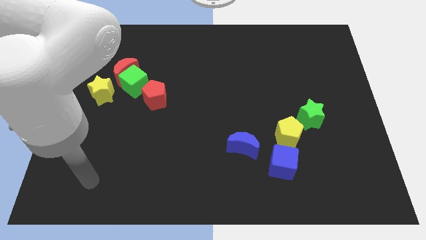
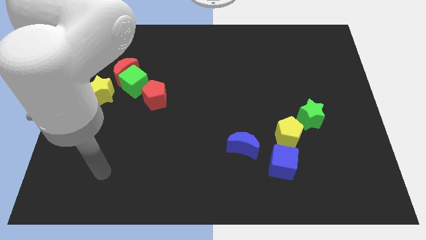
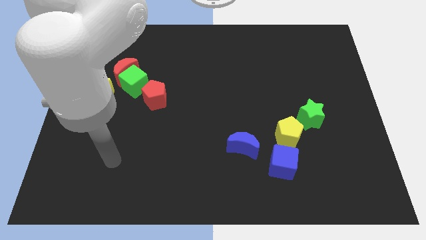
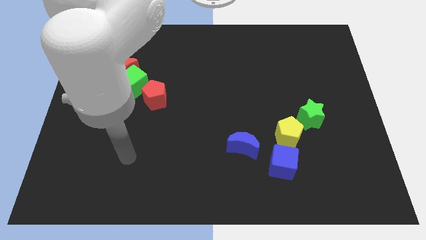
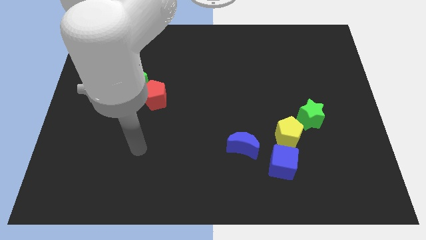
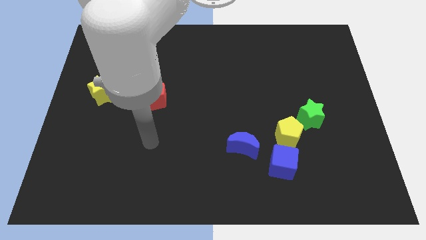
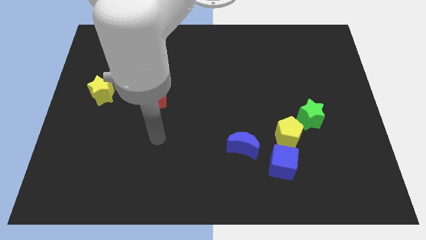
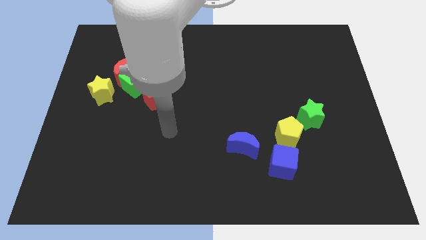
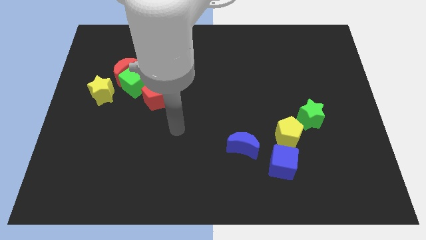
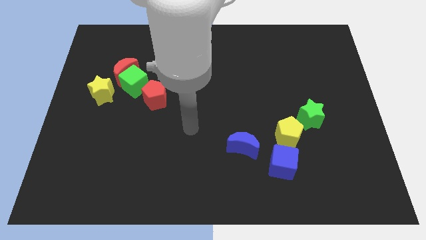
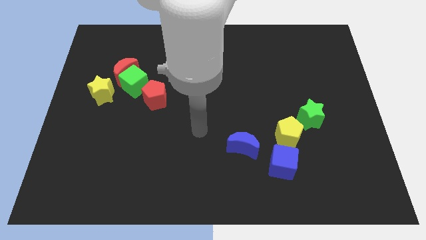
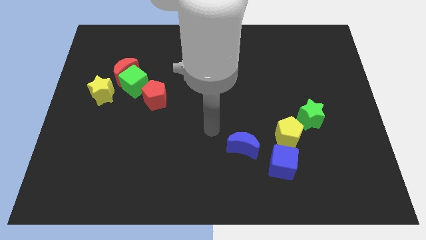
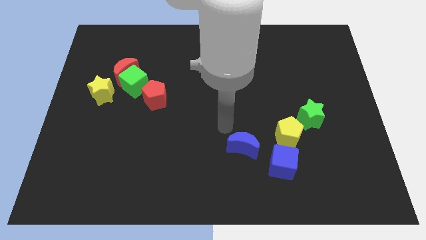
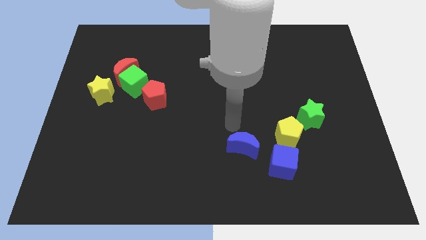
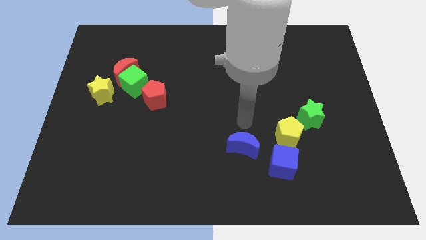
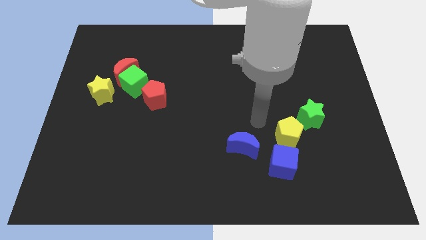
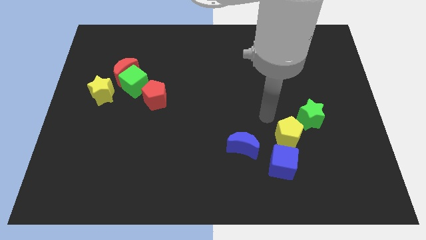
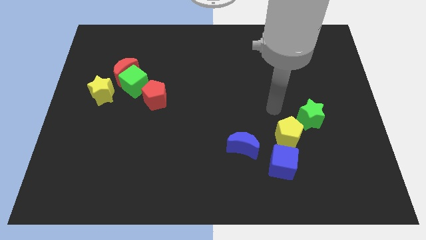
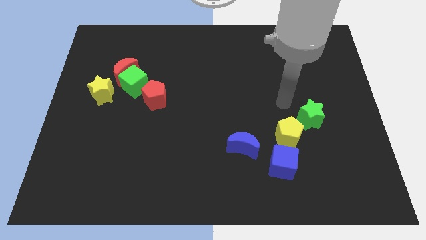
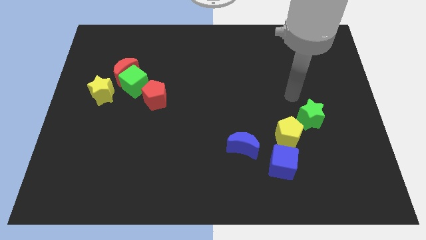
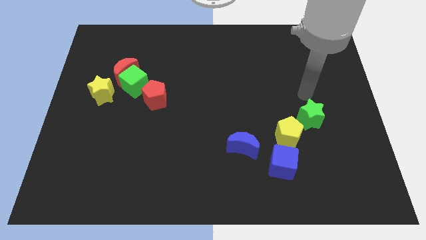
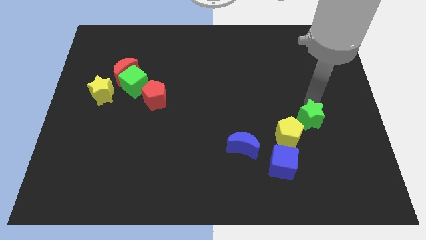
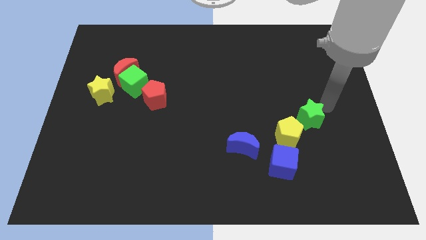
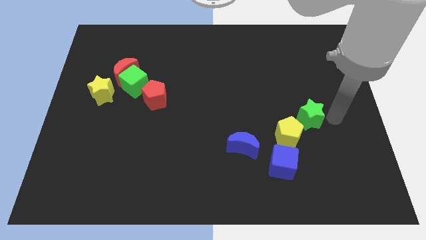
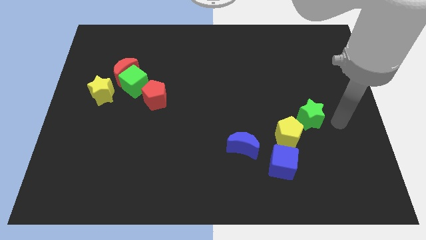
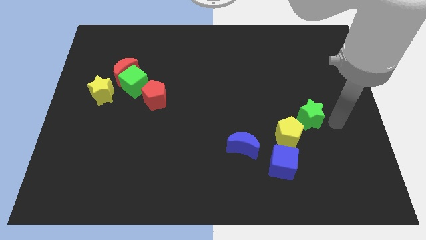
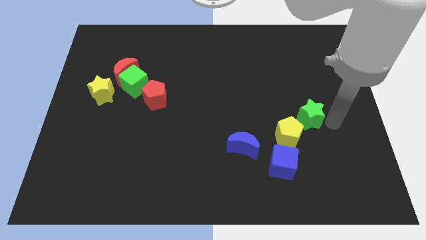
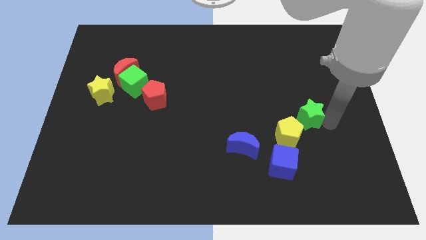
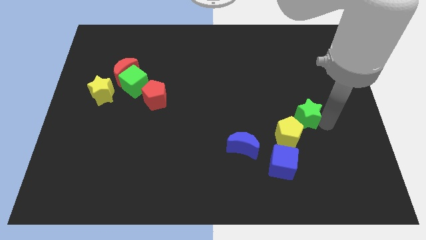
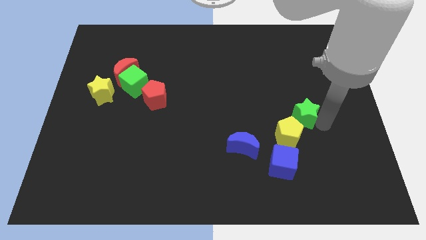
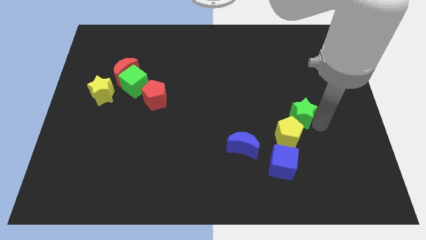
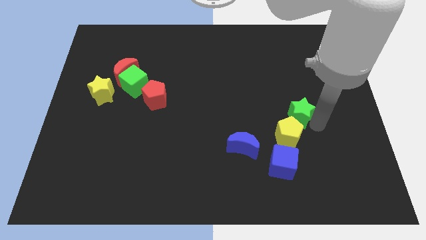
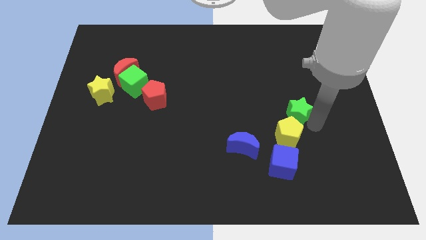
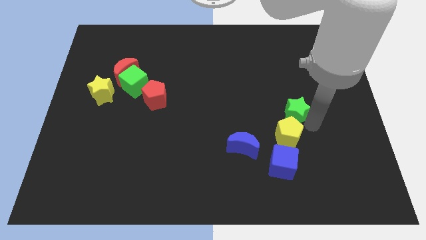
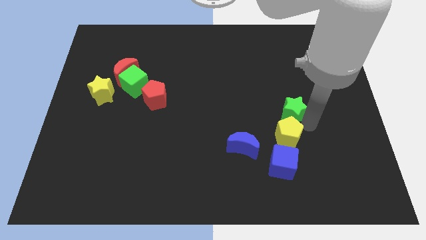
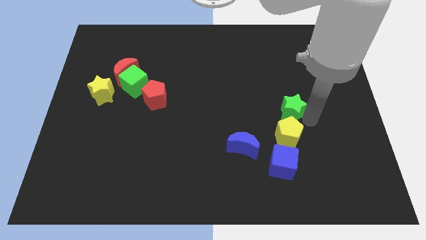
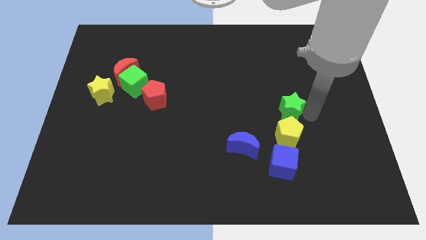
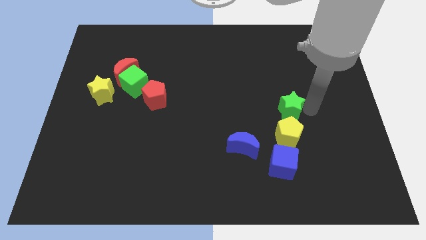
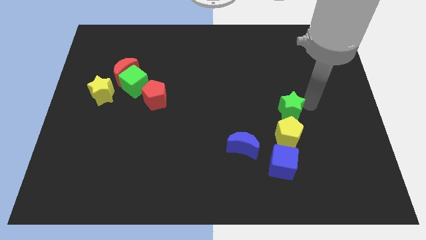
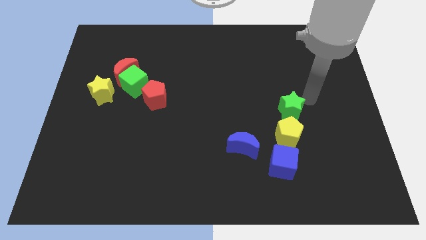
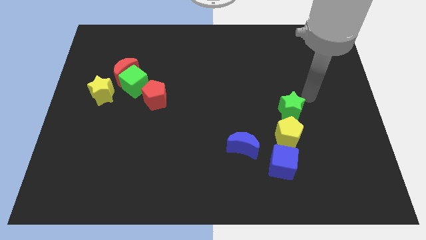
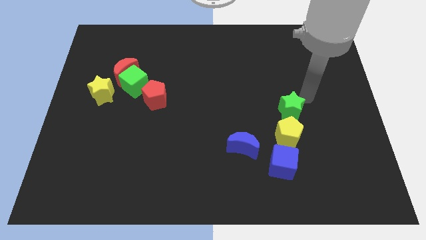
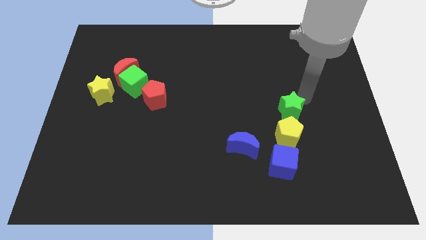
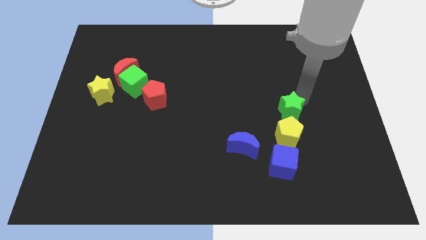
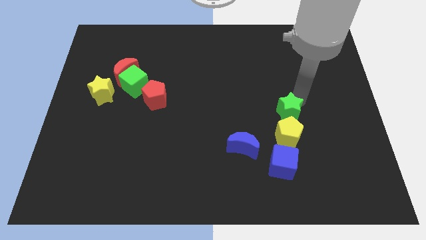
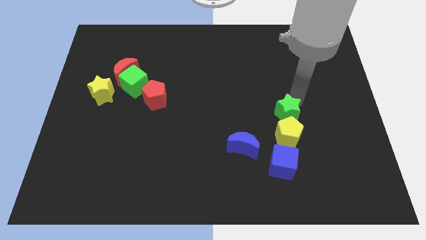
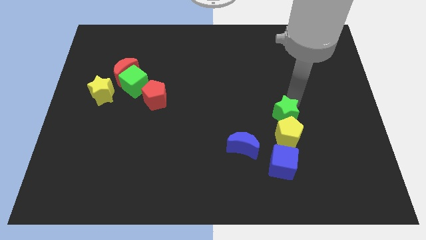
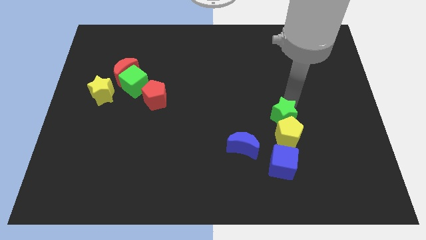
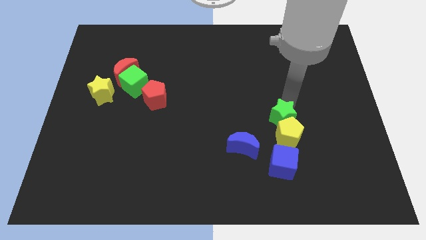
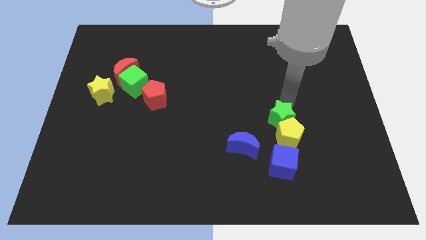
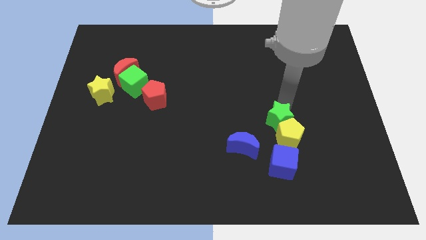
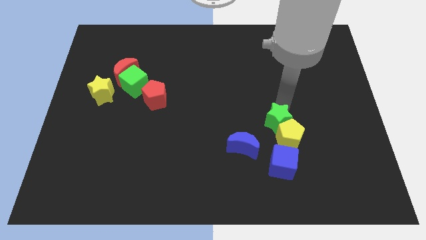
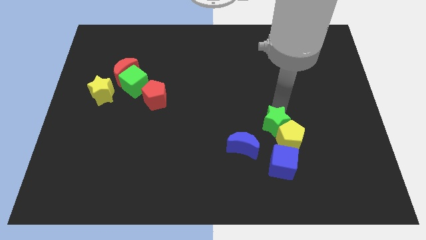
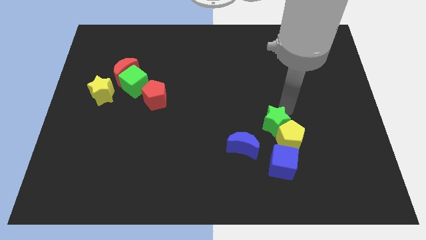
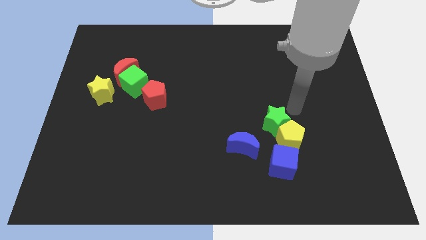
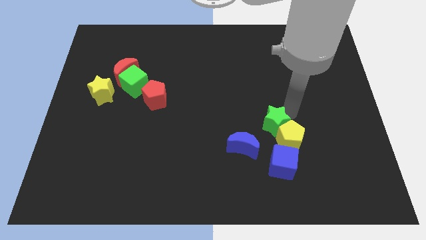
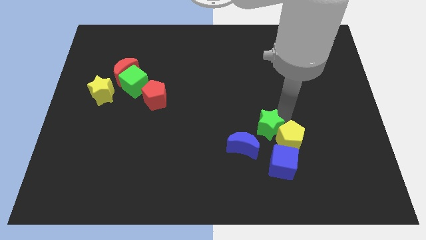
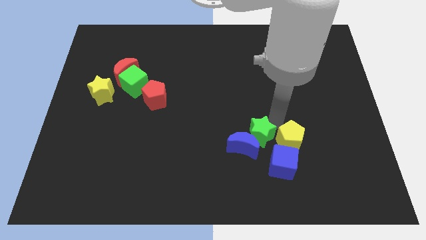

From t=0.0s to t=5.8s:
slide the green star close to the blue moon

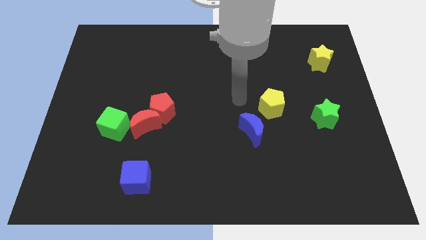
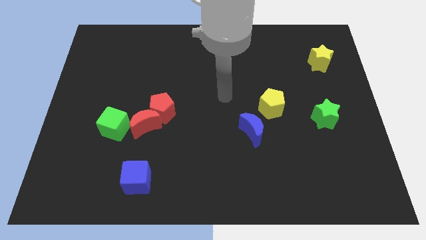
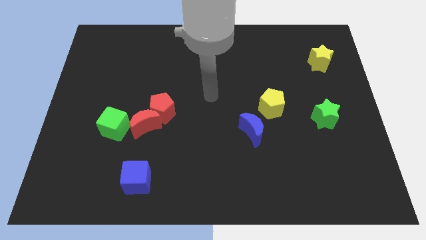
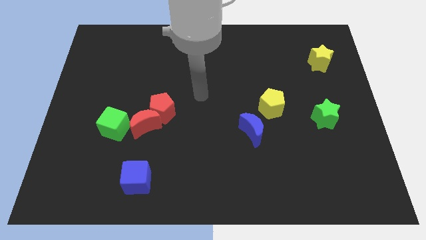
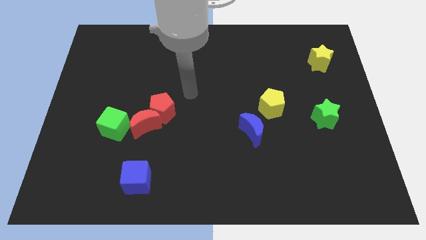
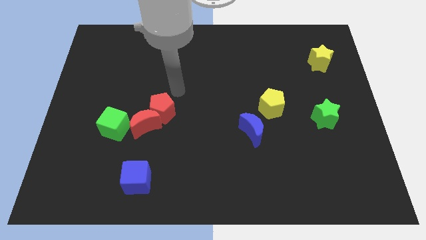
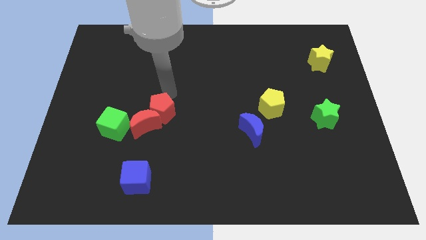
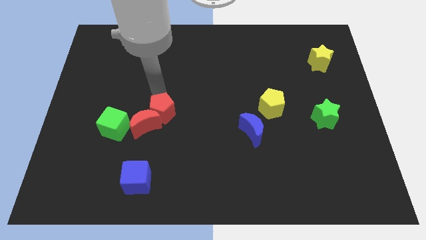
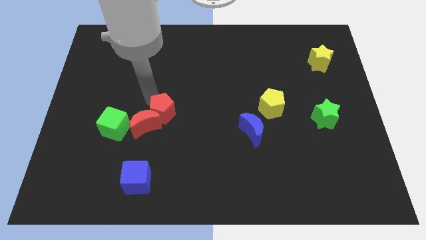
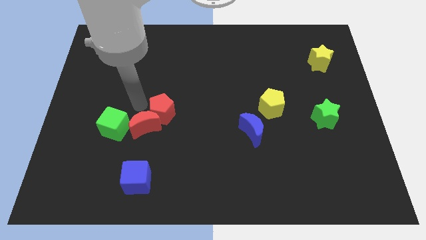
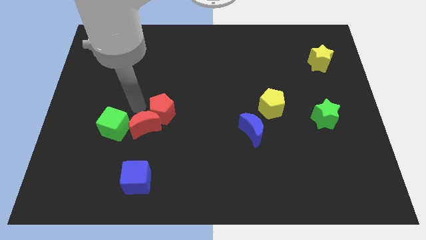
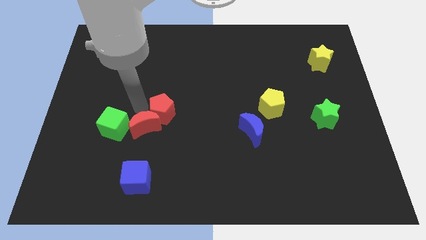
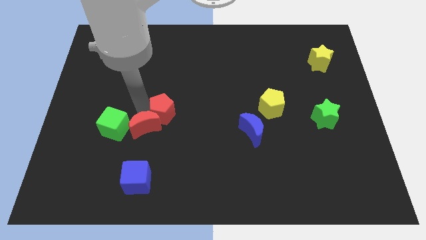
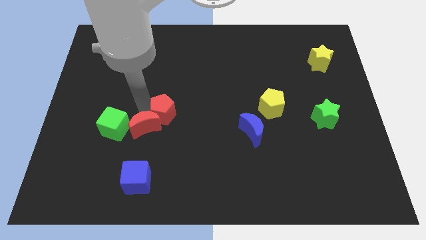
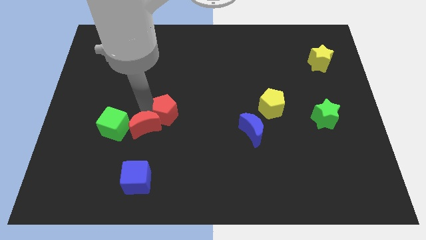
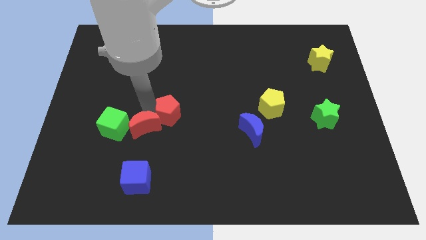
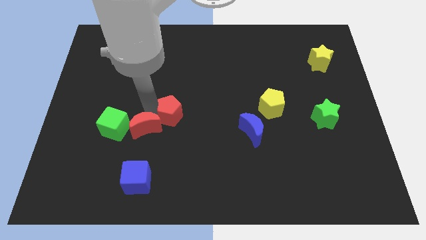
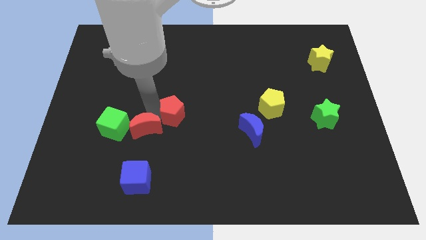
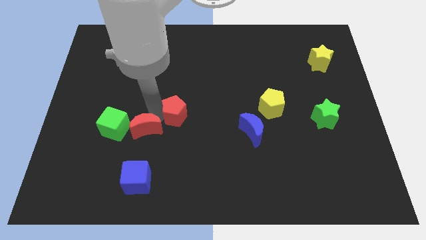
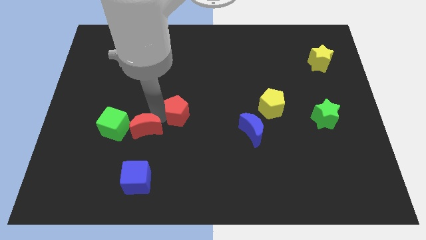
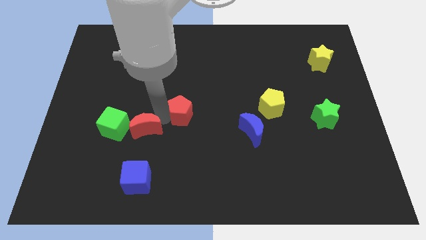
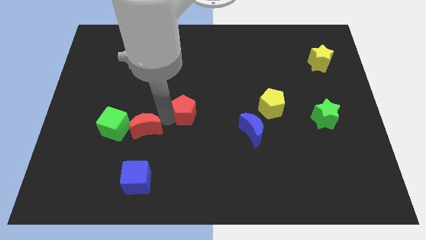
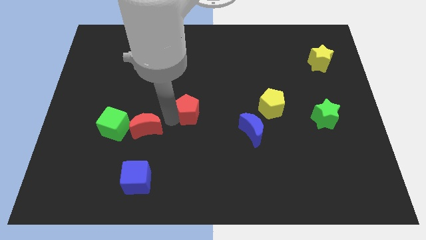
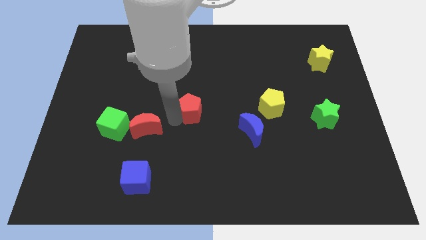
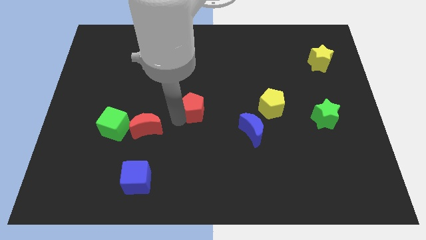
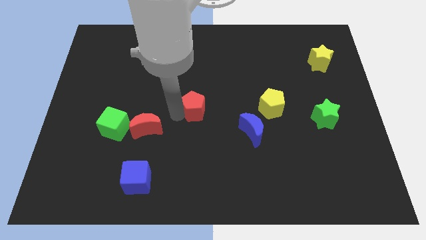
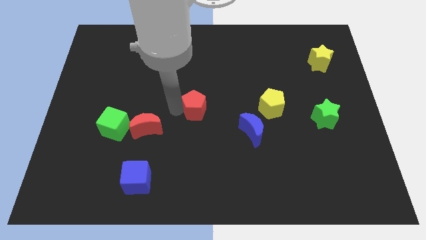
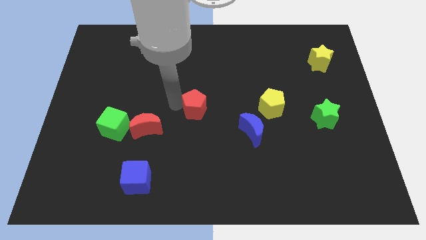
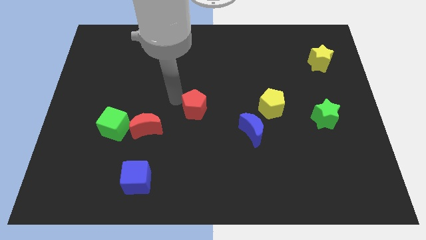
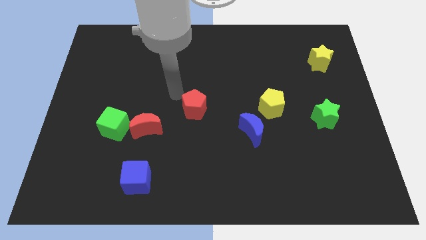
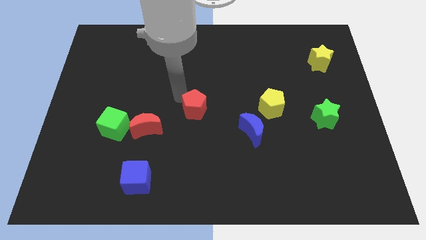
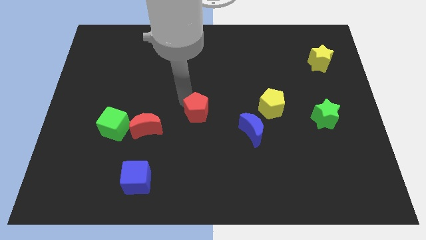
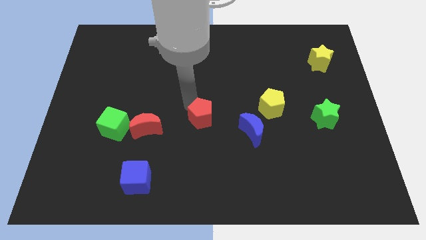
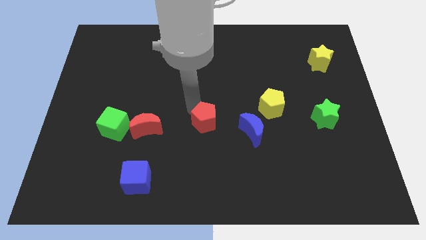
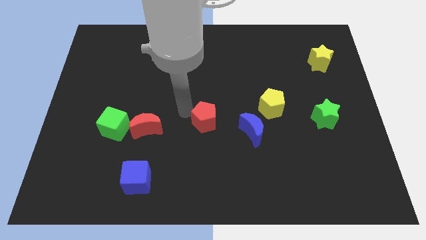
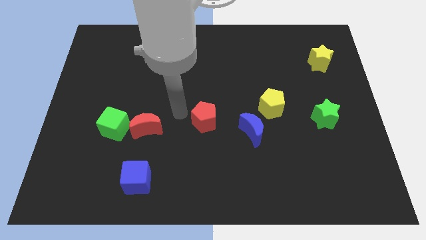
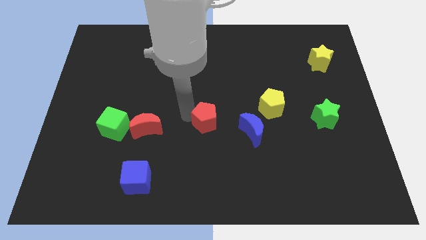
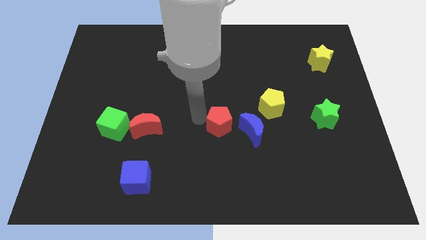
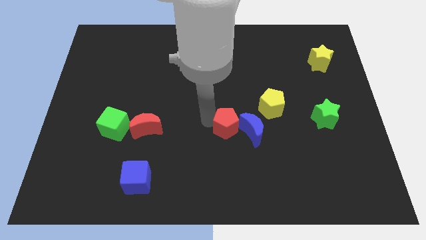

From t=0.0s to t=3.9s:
slide the red pentagon to the blue moon
